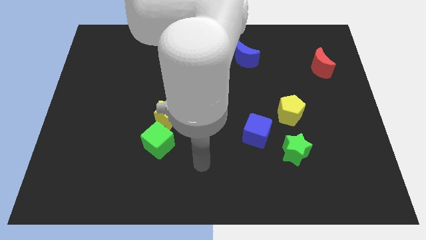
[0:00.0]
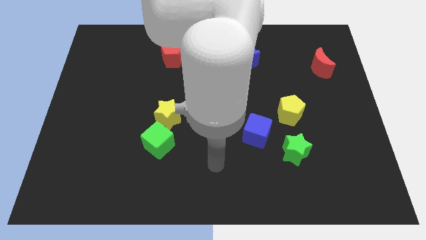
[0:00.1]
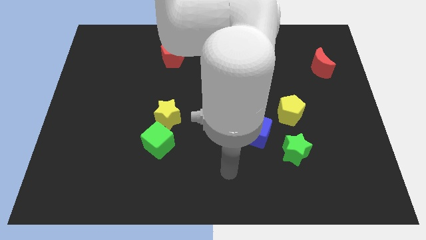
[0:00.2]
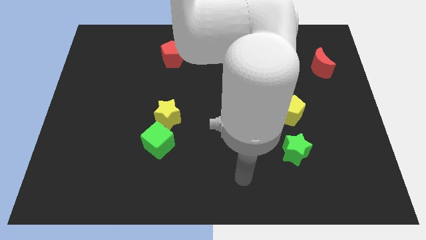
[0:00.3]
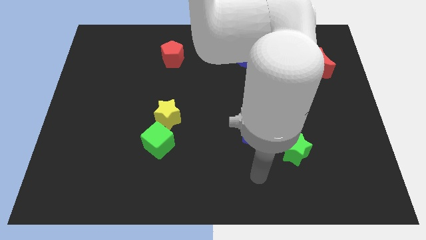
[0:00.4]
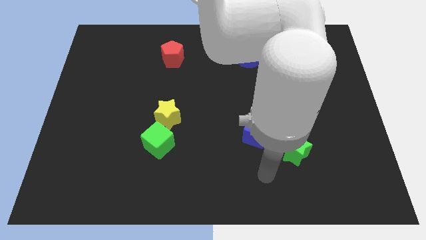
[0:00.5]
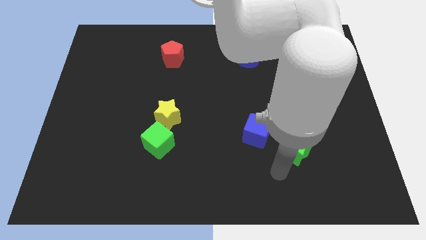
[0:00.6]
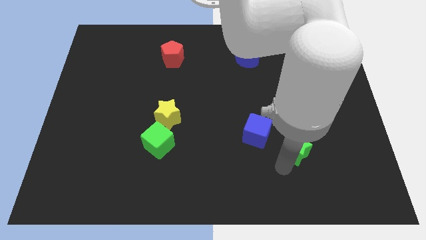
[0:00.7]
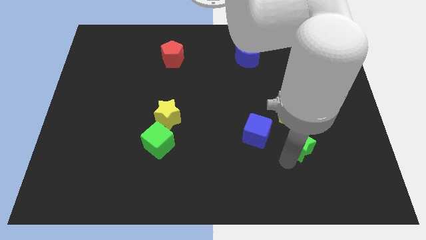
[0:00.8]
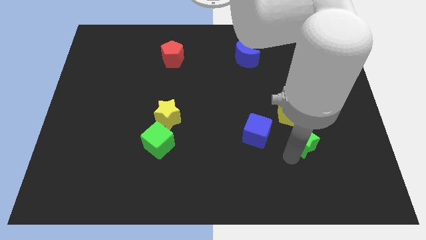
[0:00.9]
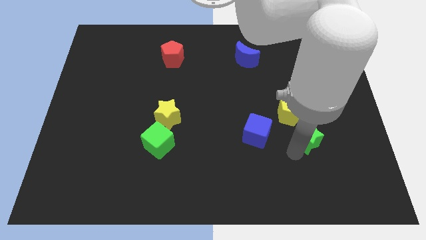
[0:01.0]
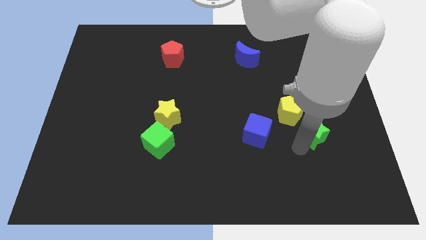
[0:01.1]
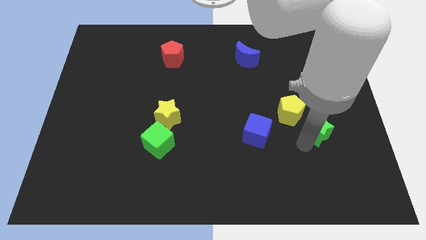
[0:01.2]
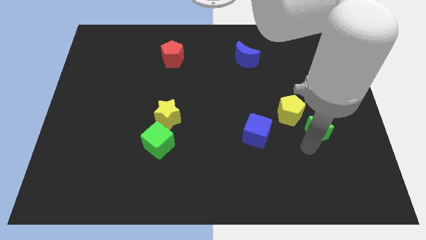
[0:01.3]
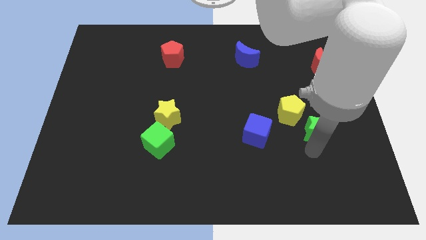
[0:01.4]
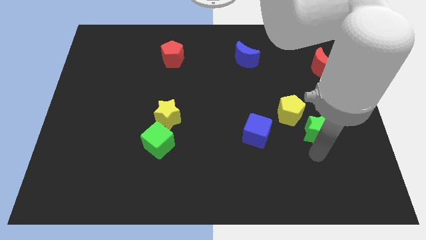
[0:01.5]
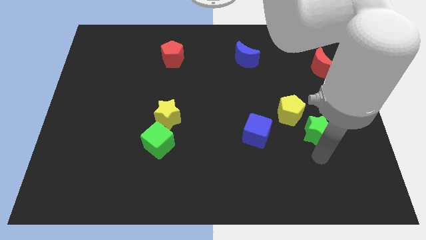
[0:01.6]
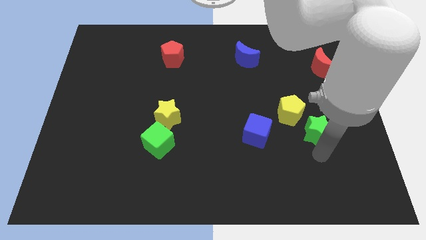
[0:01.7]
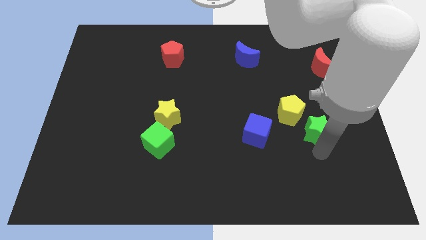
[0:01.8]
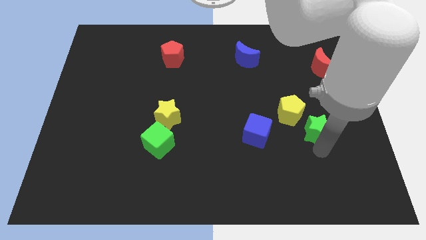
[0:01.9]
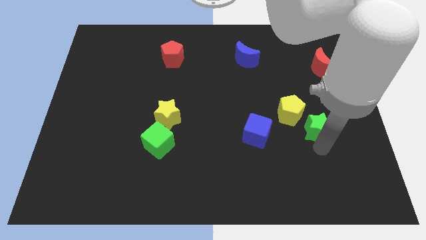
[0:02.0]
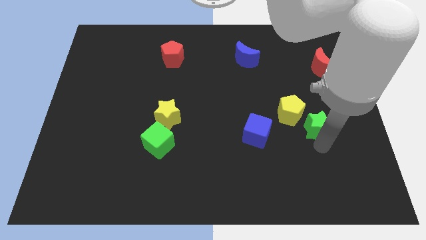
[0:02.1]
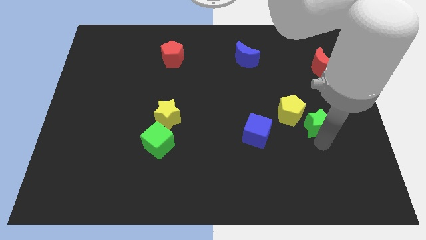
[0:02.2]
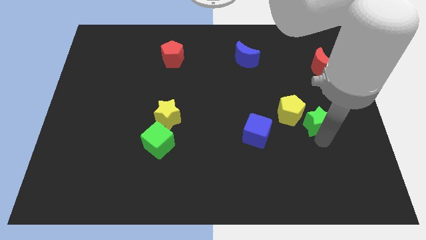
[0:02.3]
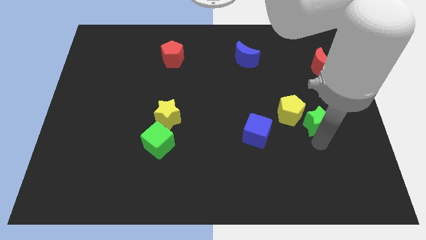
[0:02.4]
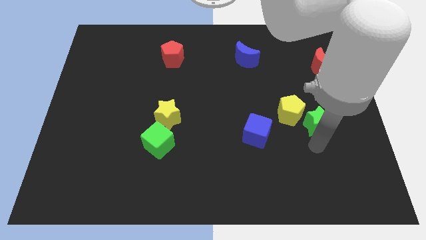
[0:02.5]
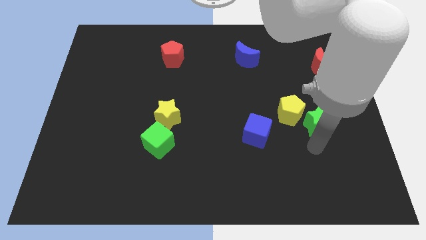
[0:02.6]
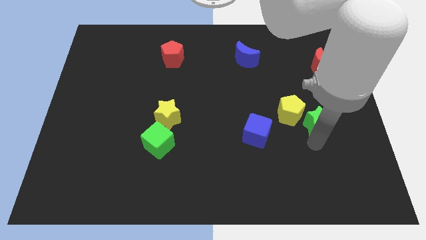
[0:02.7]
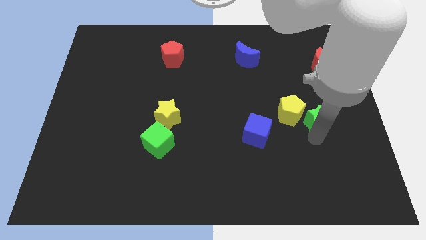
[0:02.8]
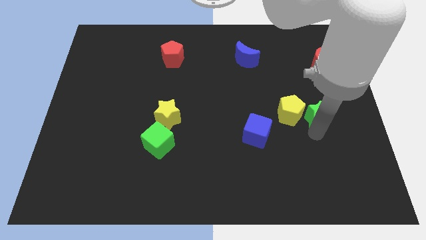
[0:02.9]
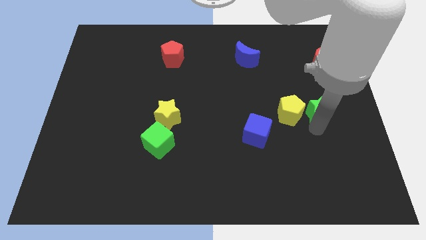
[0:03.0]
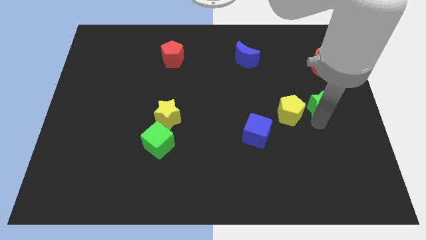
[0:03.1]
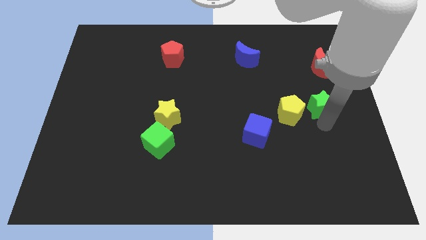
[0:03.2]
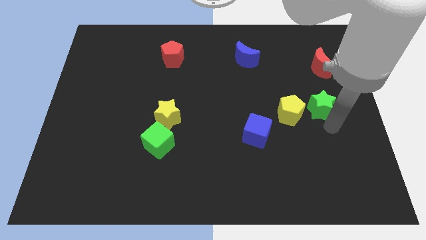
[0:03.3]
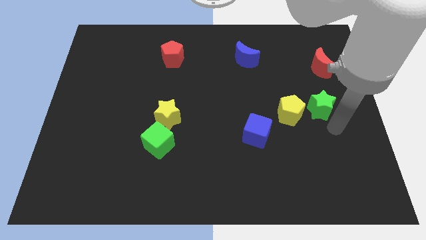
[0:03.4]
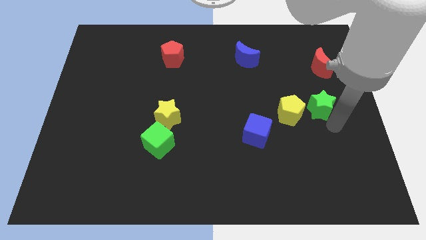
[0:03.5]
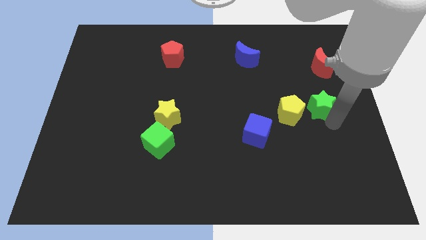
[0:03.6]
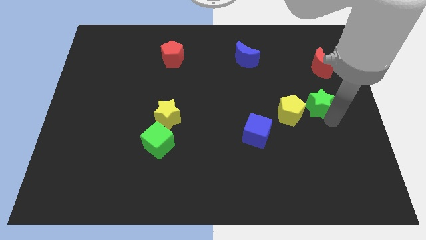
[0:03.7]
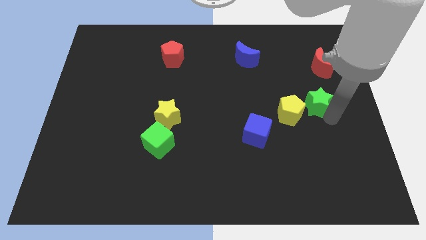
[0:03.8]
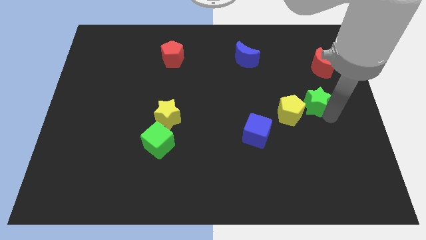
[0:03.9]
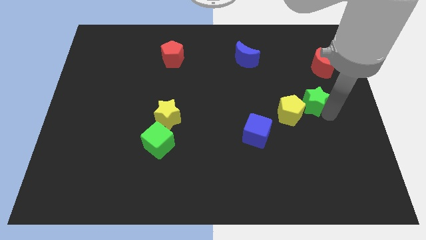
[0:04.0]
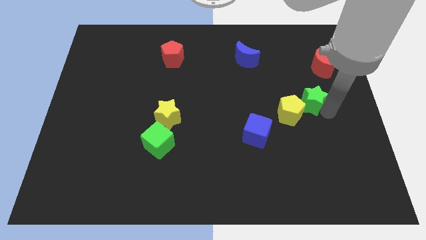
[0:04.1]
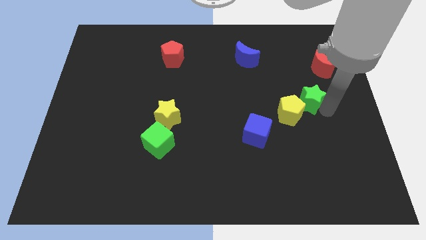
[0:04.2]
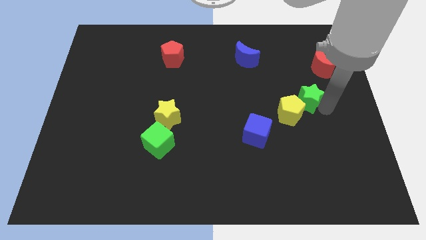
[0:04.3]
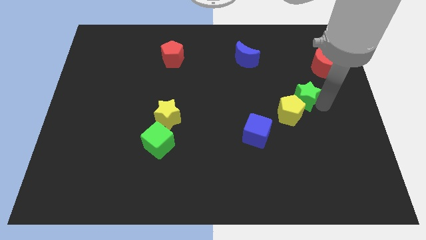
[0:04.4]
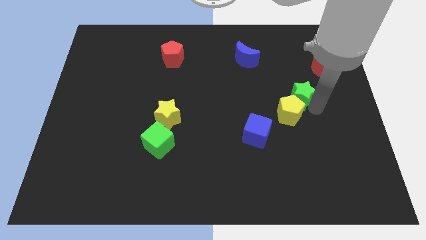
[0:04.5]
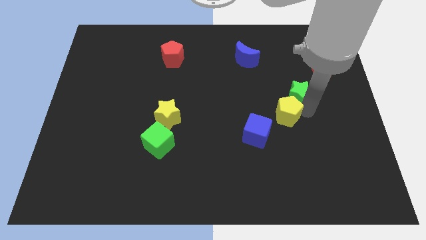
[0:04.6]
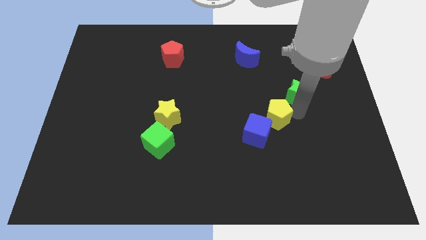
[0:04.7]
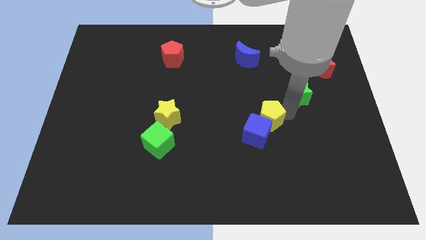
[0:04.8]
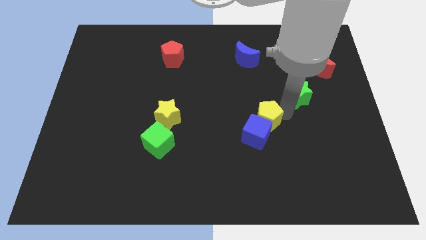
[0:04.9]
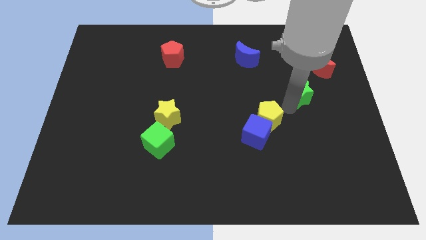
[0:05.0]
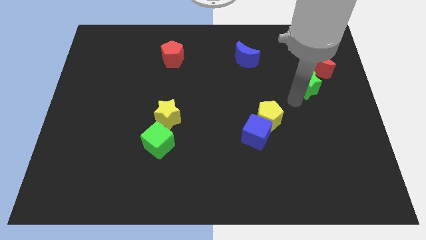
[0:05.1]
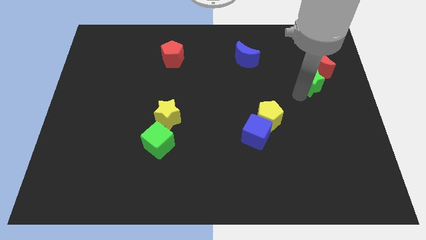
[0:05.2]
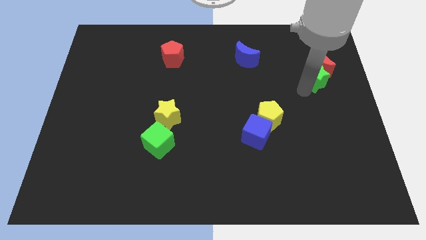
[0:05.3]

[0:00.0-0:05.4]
put the green star close to the red moon

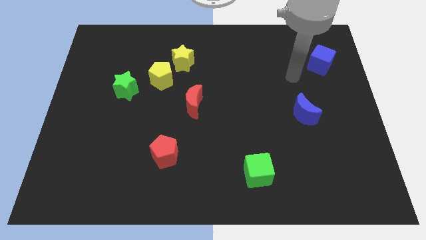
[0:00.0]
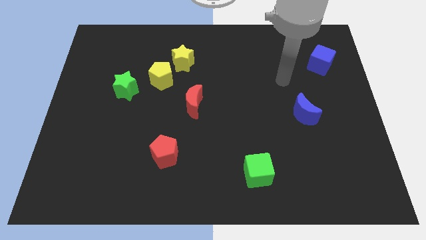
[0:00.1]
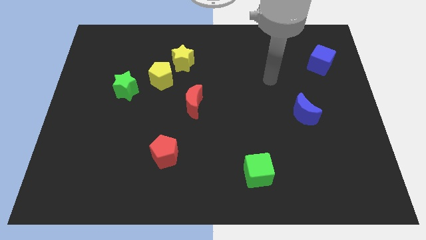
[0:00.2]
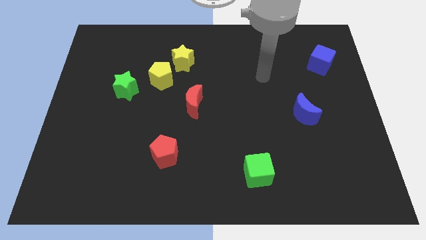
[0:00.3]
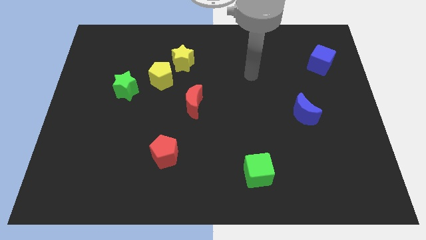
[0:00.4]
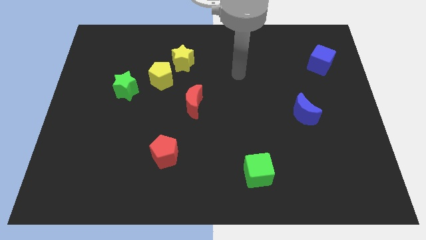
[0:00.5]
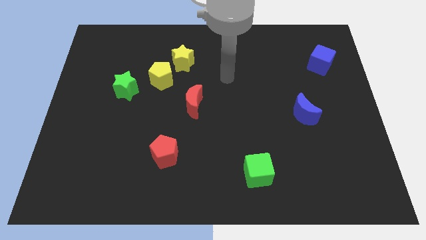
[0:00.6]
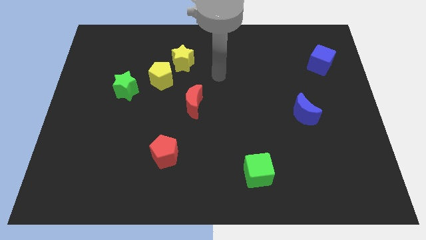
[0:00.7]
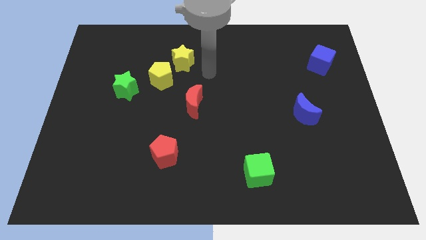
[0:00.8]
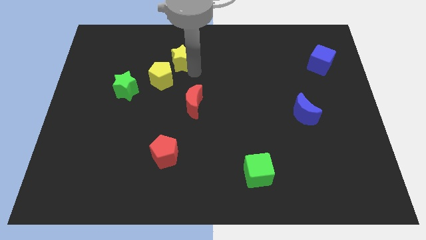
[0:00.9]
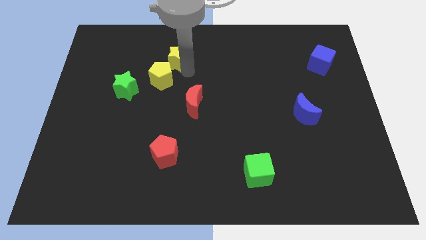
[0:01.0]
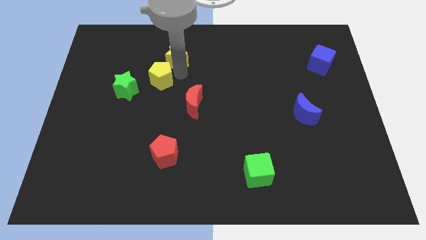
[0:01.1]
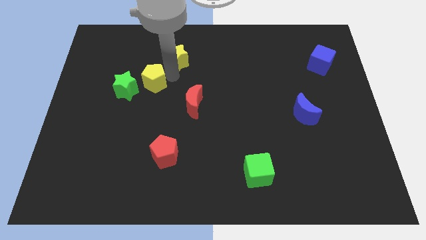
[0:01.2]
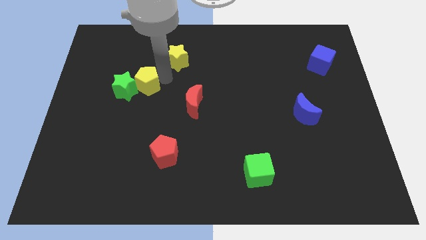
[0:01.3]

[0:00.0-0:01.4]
move the yellow pentagon next to the green star

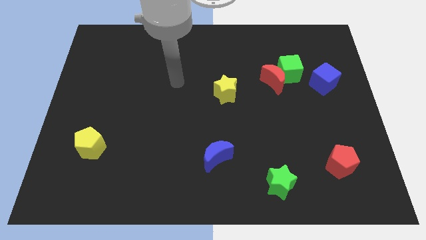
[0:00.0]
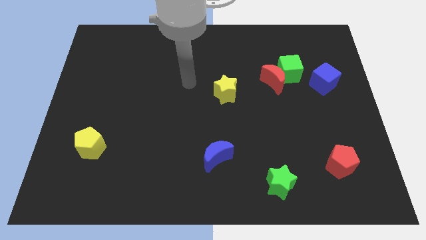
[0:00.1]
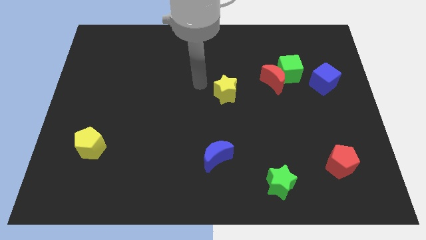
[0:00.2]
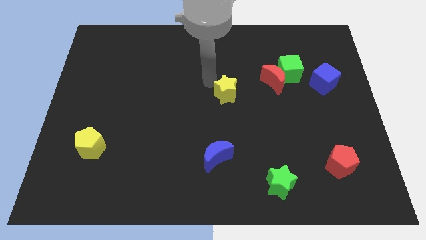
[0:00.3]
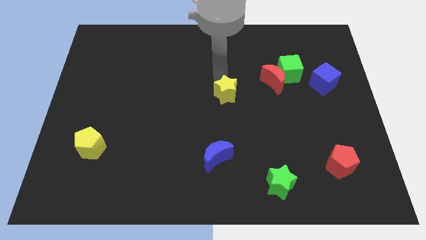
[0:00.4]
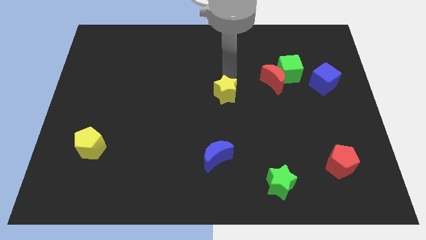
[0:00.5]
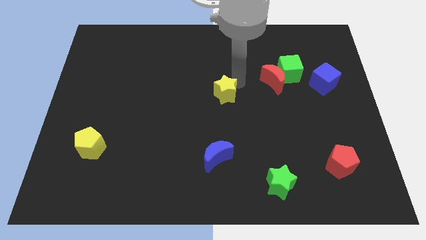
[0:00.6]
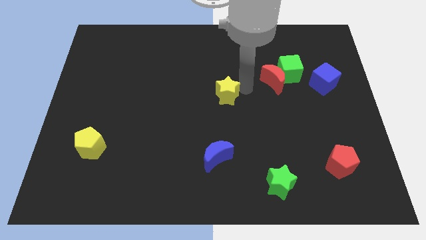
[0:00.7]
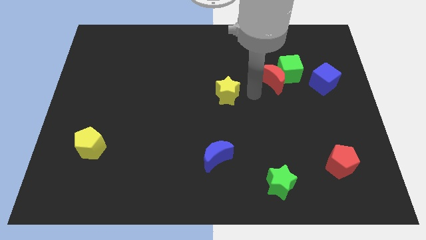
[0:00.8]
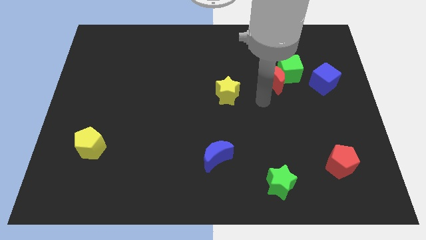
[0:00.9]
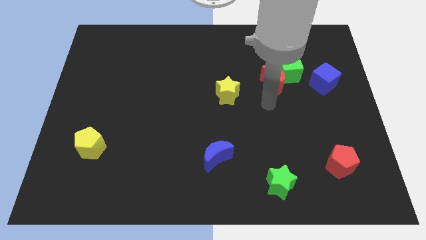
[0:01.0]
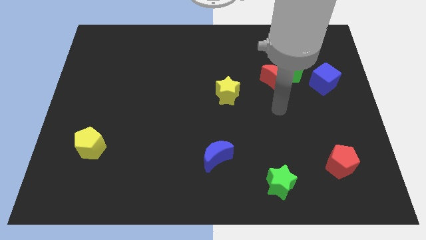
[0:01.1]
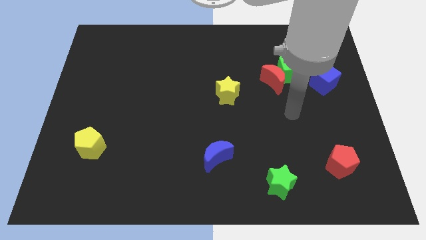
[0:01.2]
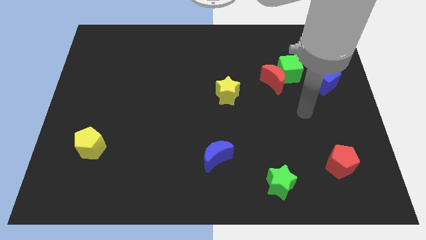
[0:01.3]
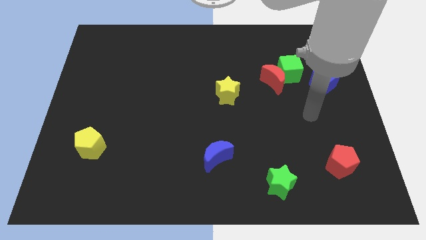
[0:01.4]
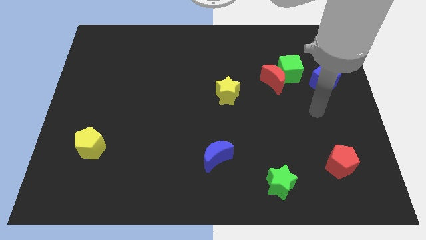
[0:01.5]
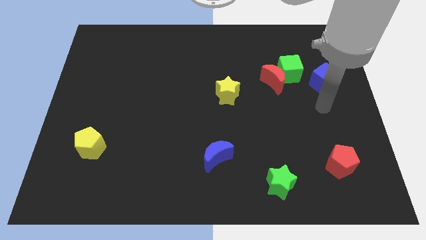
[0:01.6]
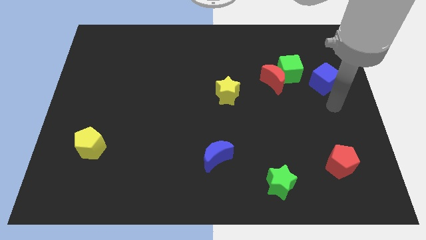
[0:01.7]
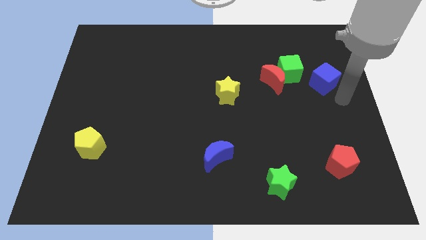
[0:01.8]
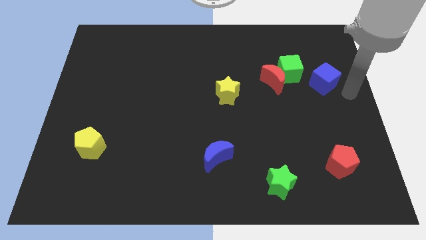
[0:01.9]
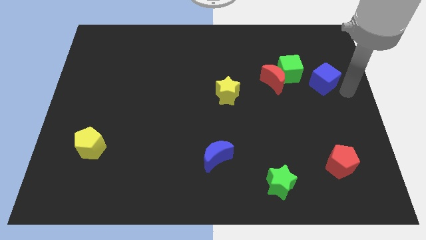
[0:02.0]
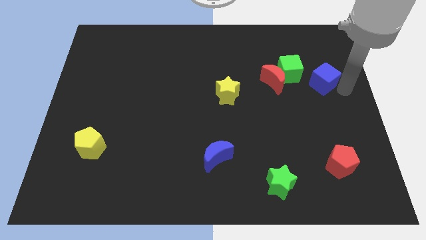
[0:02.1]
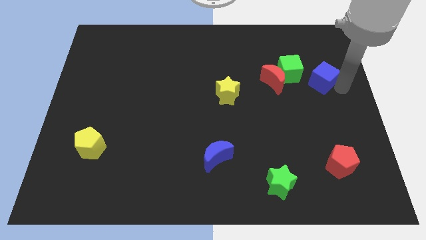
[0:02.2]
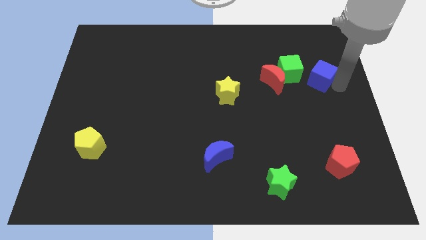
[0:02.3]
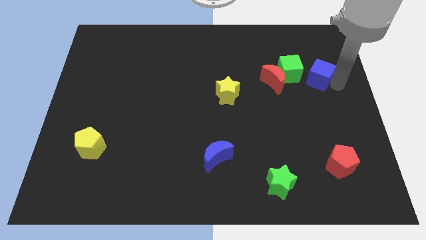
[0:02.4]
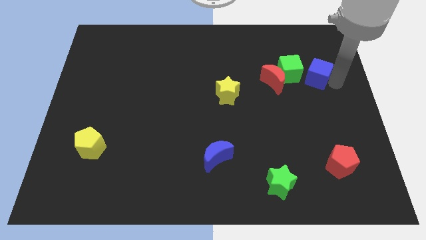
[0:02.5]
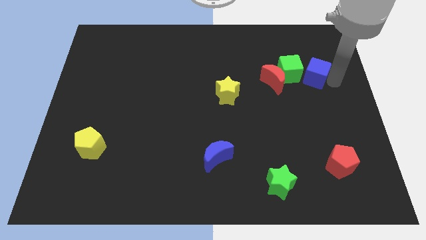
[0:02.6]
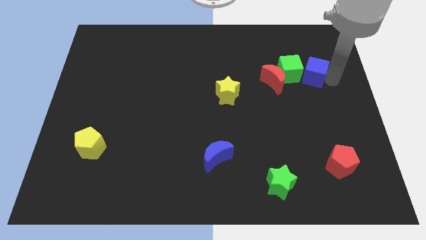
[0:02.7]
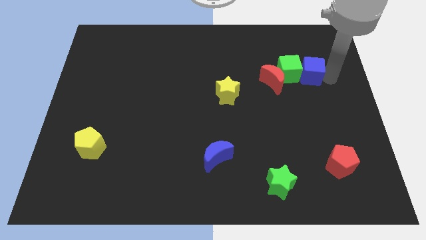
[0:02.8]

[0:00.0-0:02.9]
slide the blue cube next to the green cube
